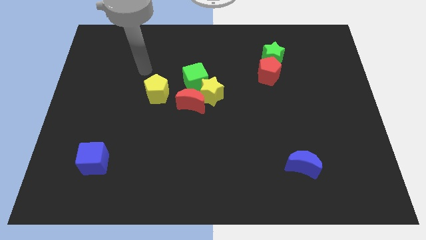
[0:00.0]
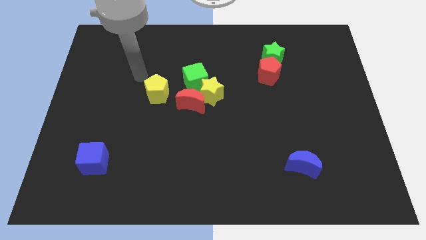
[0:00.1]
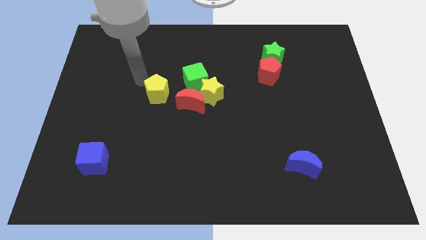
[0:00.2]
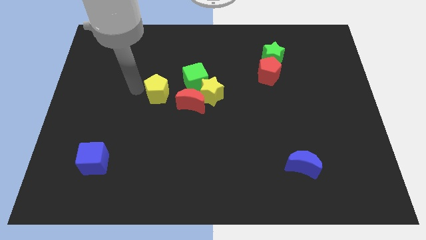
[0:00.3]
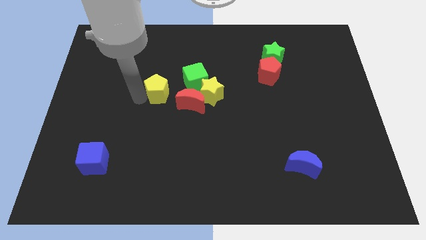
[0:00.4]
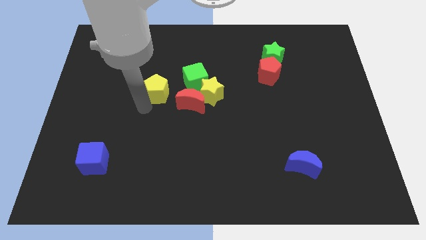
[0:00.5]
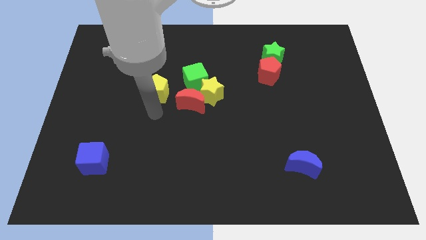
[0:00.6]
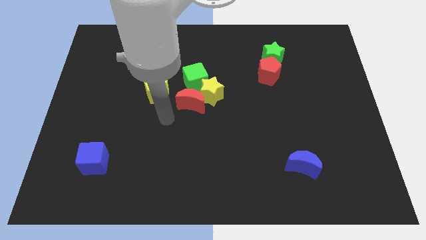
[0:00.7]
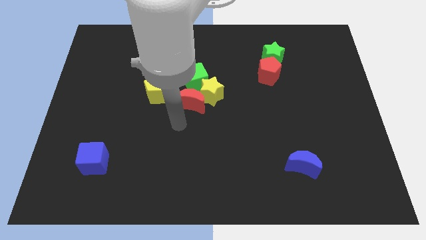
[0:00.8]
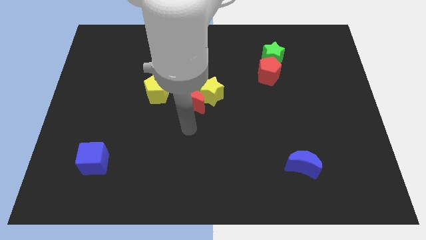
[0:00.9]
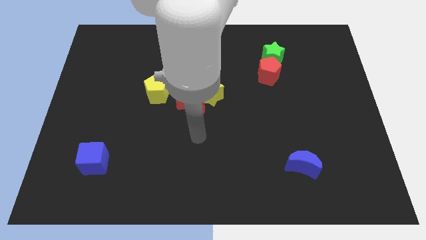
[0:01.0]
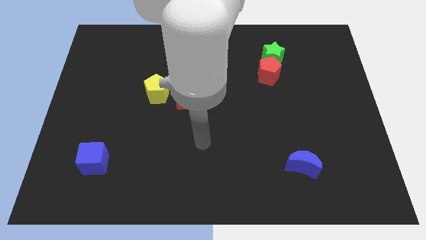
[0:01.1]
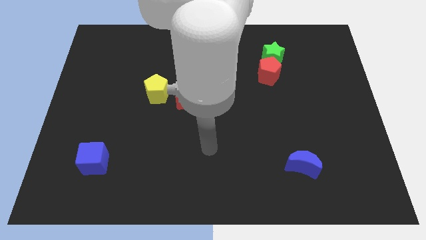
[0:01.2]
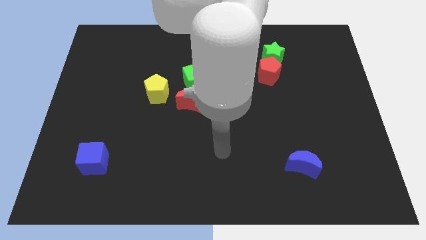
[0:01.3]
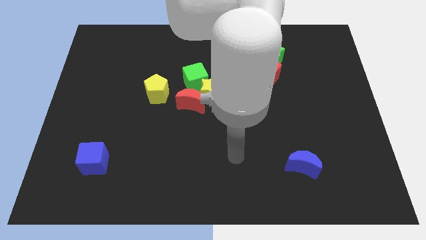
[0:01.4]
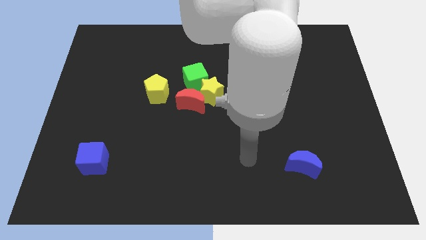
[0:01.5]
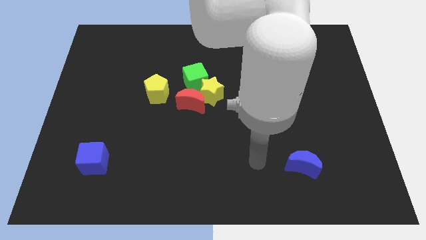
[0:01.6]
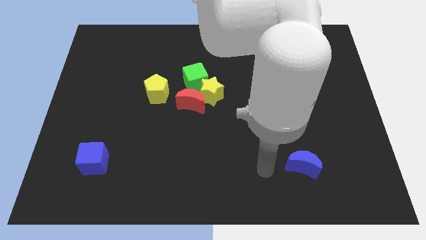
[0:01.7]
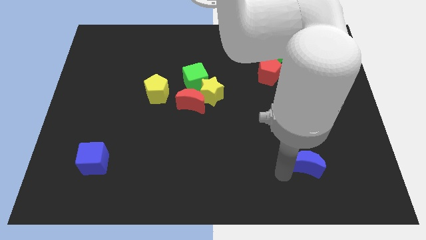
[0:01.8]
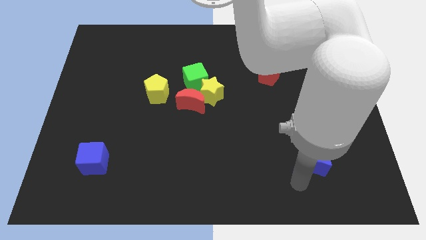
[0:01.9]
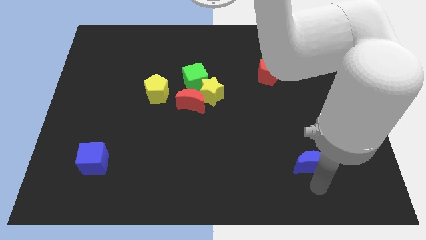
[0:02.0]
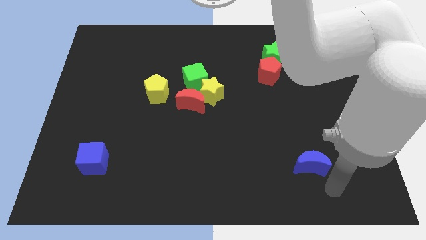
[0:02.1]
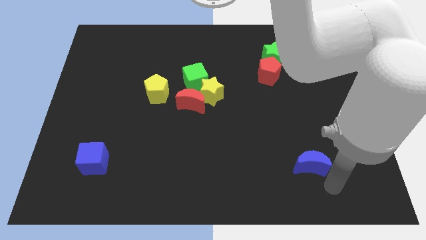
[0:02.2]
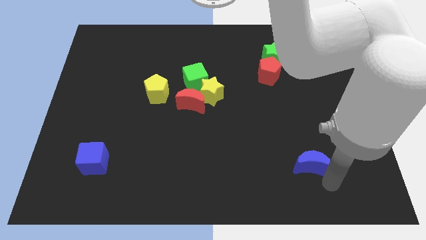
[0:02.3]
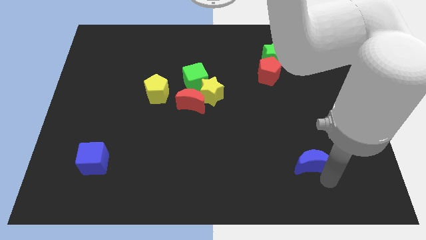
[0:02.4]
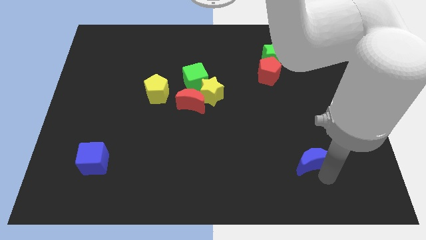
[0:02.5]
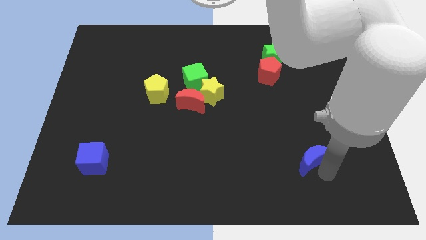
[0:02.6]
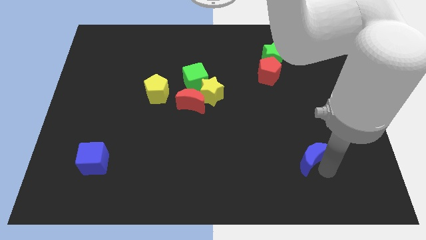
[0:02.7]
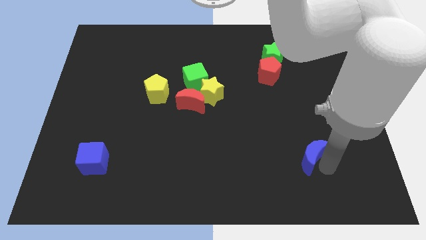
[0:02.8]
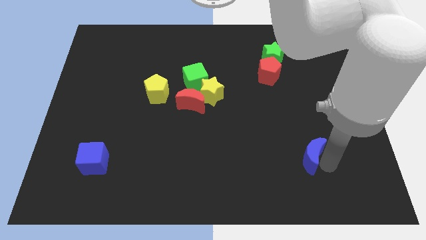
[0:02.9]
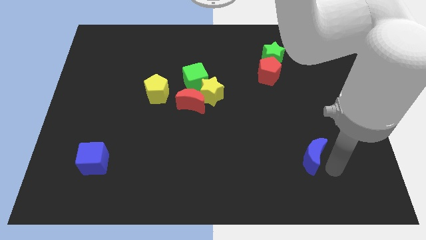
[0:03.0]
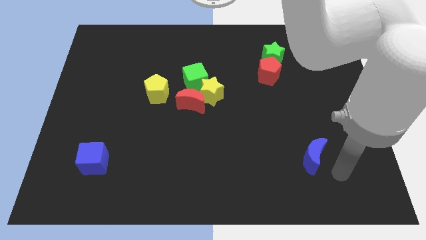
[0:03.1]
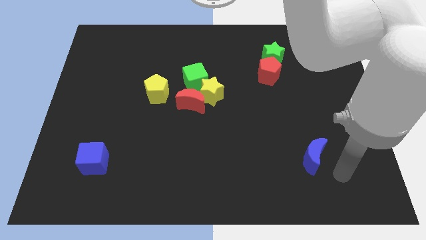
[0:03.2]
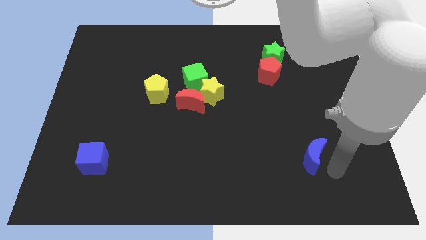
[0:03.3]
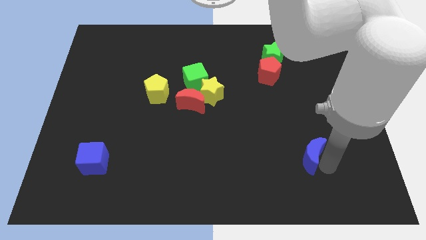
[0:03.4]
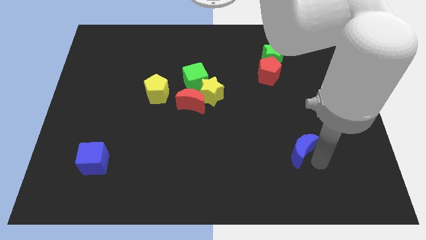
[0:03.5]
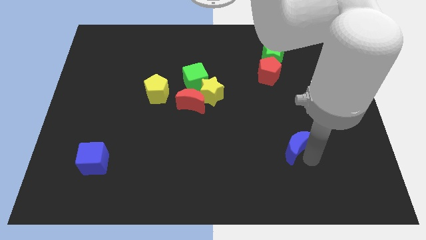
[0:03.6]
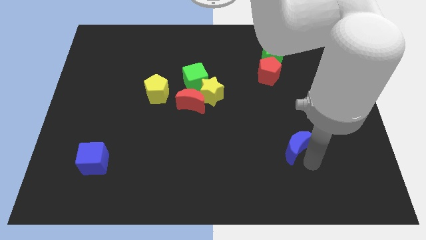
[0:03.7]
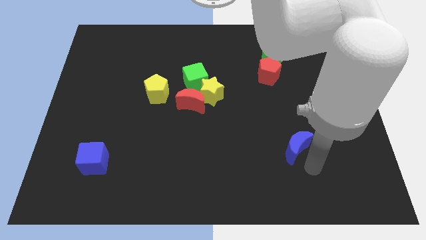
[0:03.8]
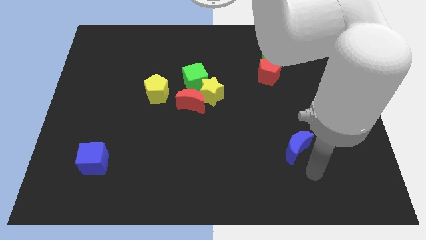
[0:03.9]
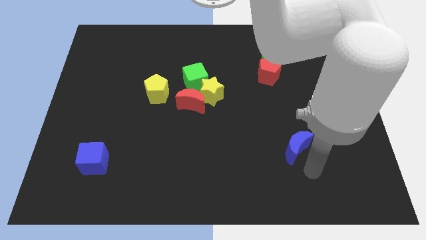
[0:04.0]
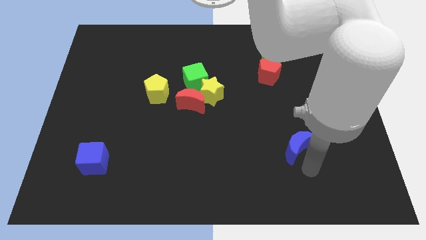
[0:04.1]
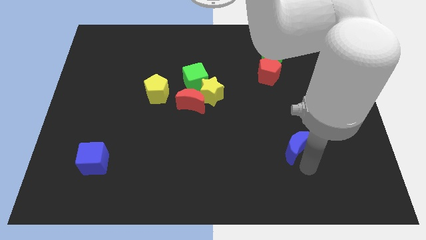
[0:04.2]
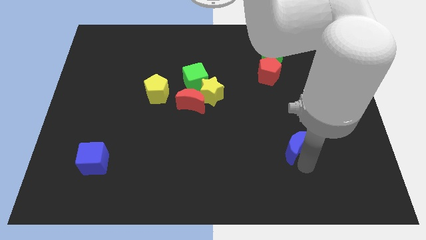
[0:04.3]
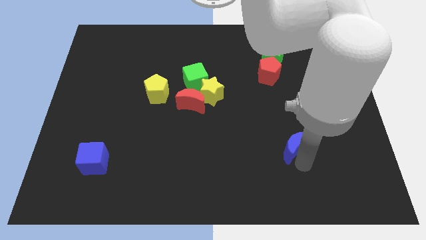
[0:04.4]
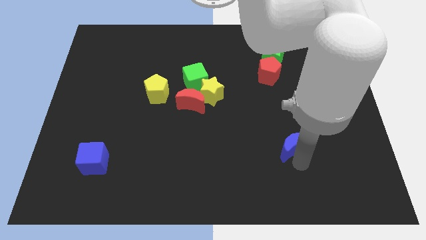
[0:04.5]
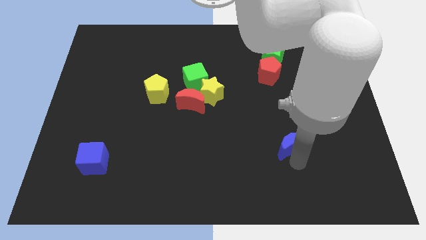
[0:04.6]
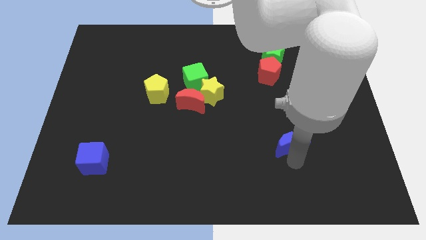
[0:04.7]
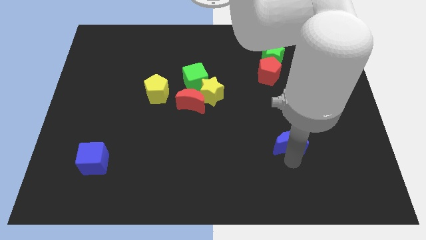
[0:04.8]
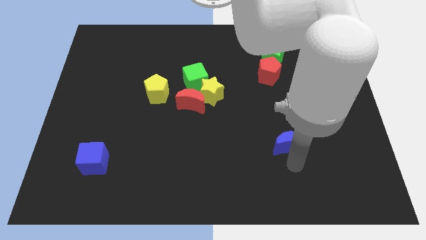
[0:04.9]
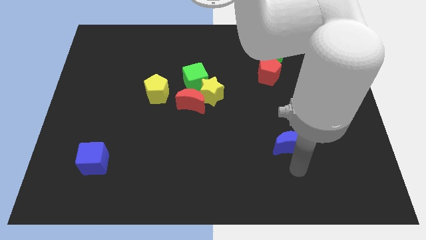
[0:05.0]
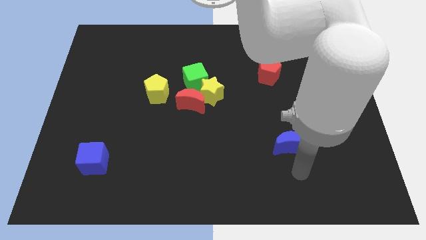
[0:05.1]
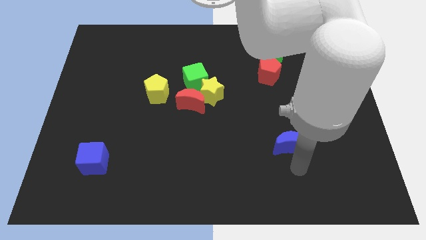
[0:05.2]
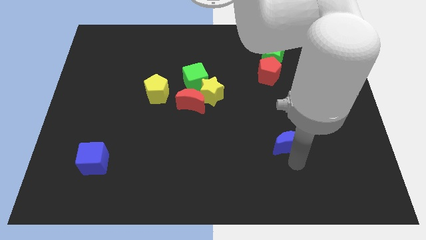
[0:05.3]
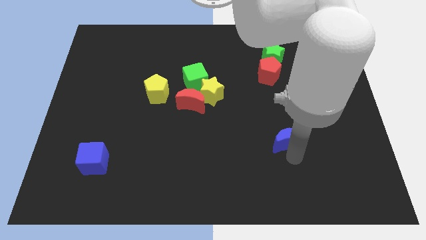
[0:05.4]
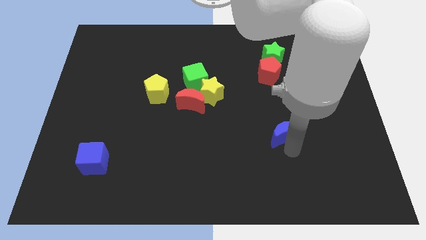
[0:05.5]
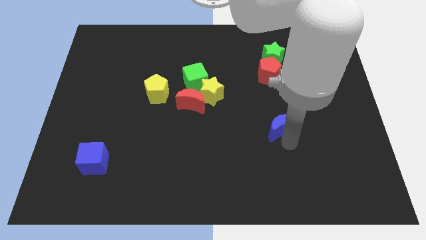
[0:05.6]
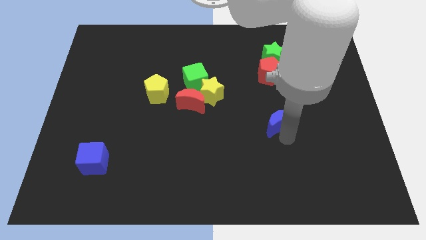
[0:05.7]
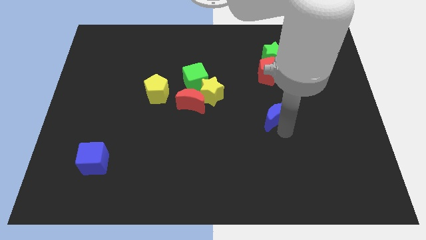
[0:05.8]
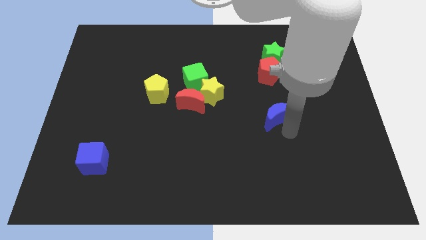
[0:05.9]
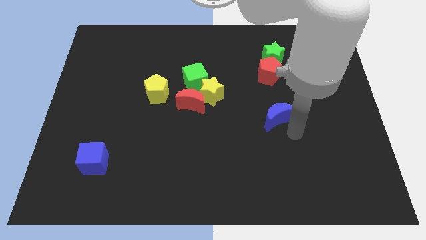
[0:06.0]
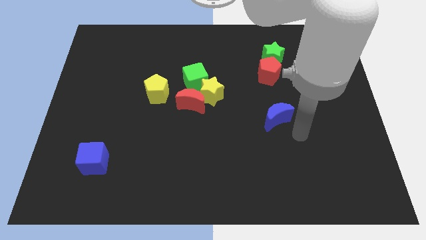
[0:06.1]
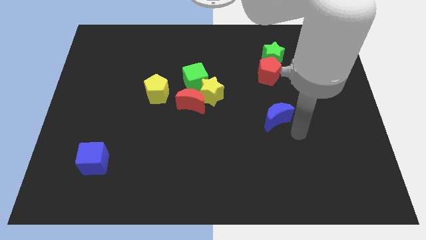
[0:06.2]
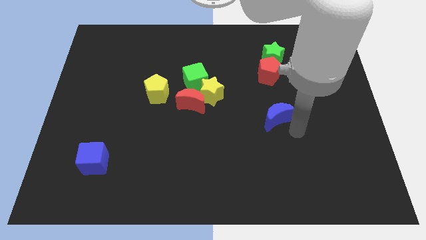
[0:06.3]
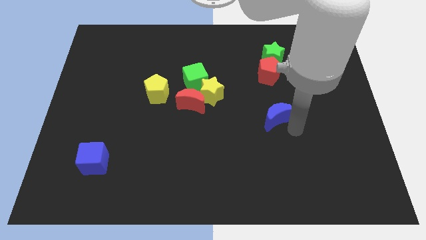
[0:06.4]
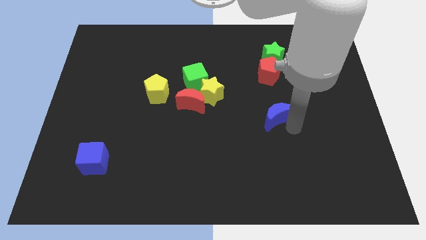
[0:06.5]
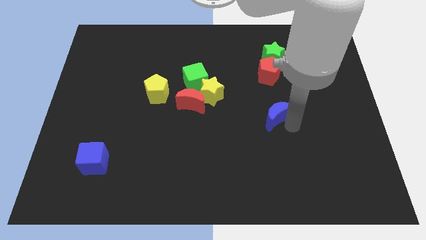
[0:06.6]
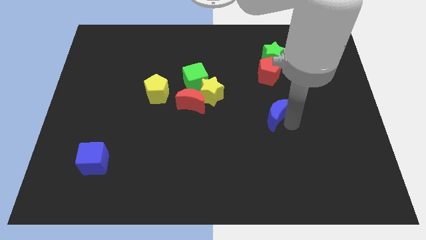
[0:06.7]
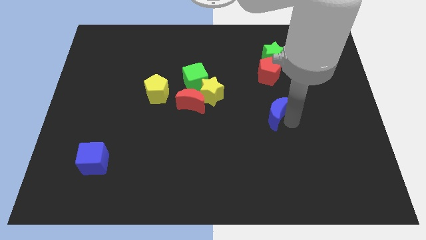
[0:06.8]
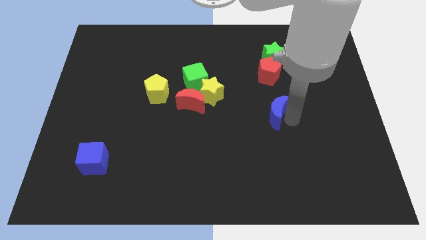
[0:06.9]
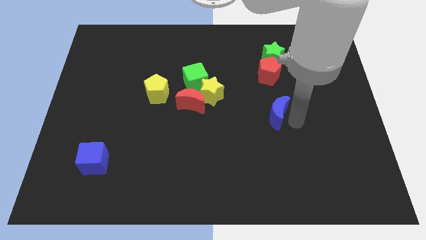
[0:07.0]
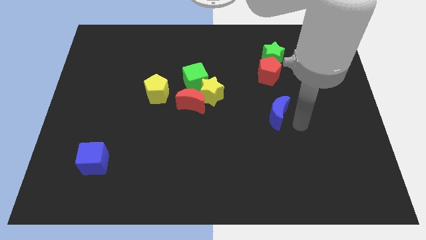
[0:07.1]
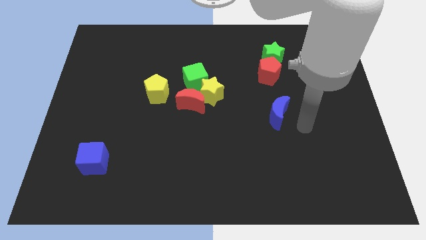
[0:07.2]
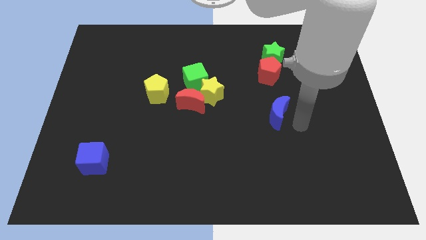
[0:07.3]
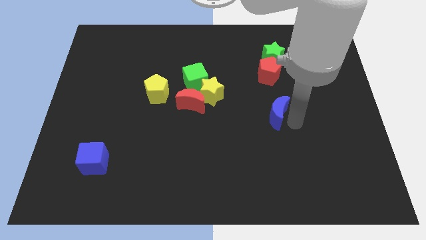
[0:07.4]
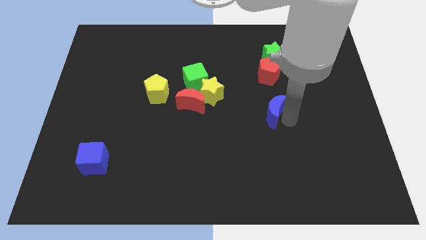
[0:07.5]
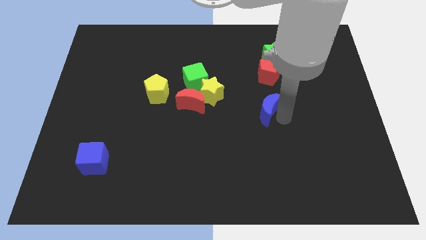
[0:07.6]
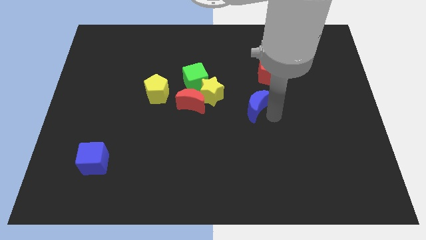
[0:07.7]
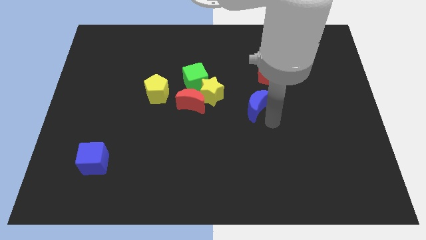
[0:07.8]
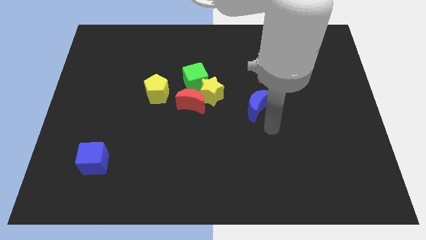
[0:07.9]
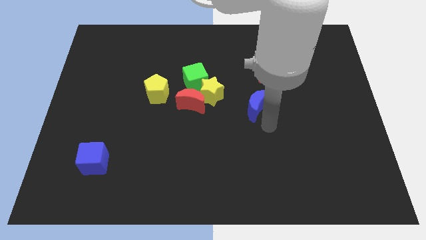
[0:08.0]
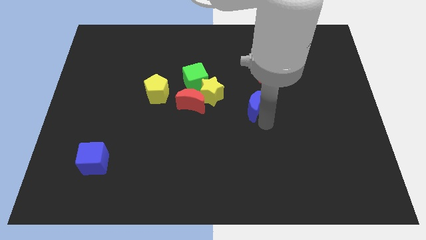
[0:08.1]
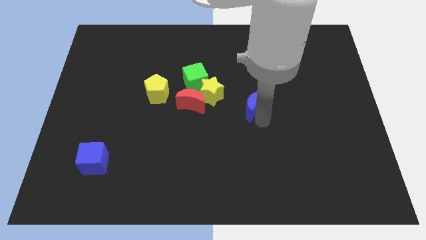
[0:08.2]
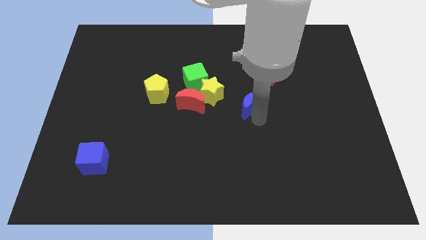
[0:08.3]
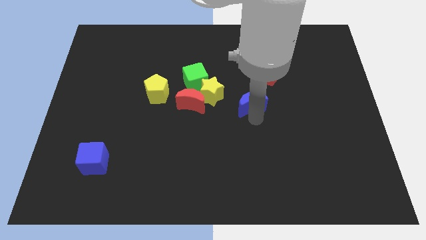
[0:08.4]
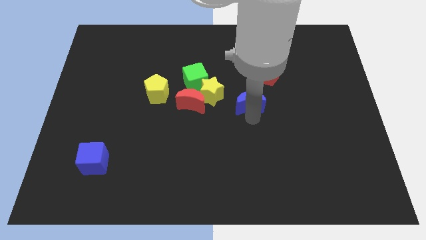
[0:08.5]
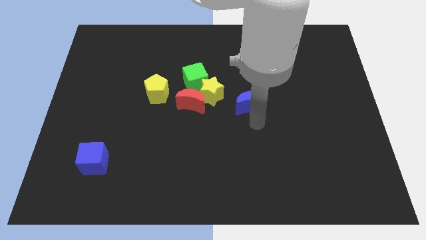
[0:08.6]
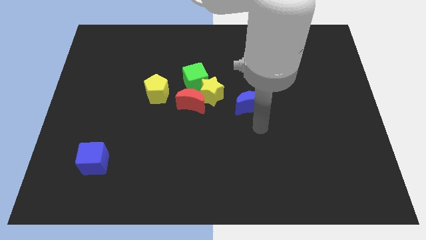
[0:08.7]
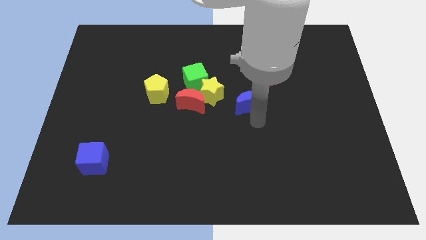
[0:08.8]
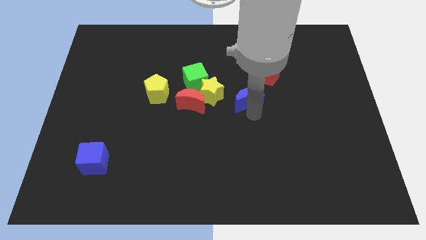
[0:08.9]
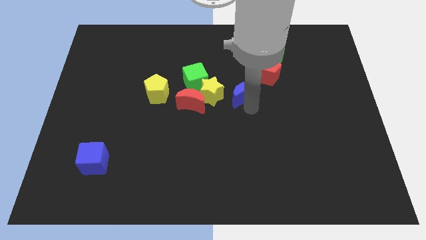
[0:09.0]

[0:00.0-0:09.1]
put the blue moon right of the green cube
